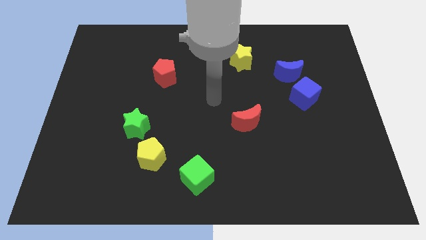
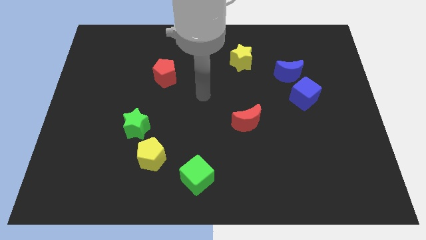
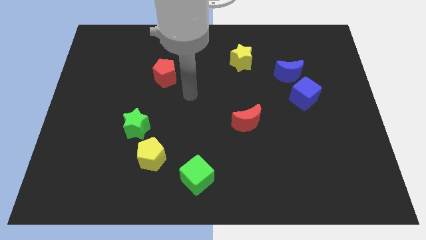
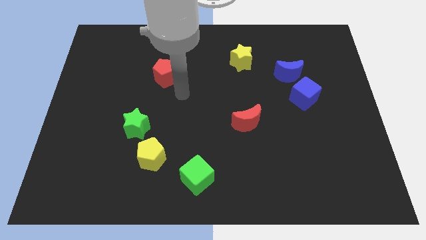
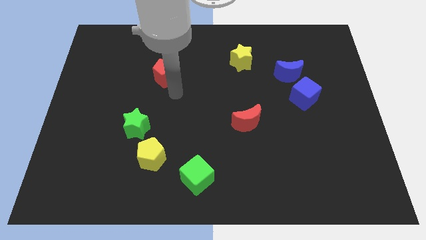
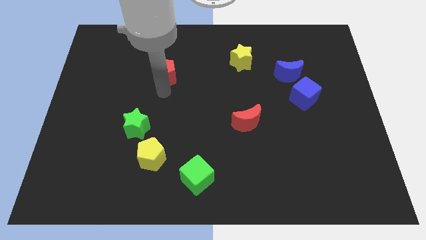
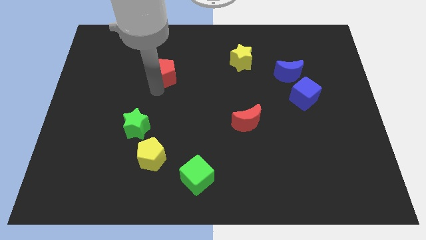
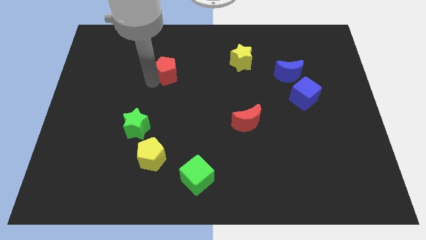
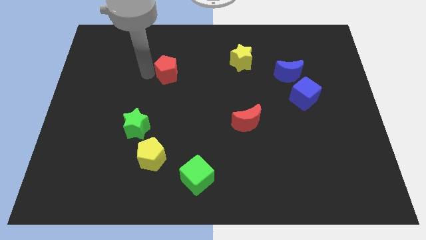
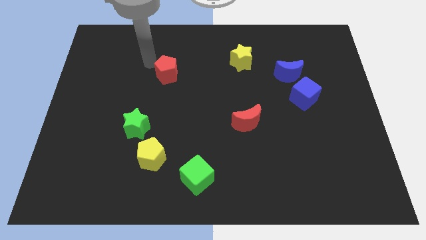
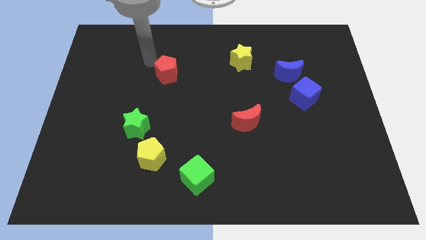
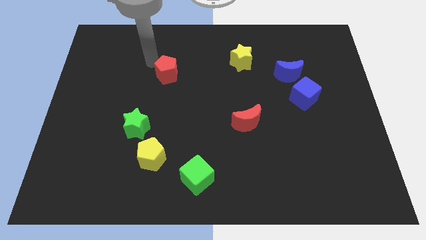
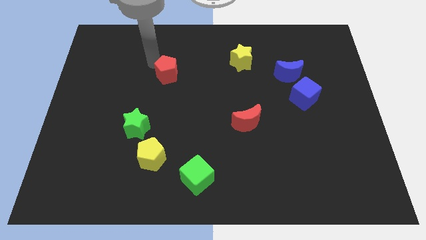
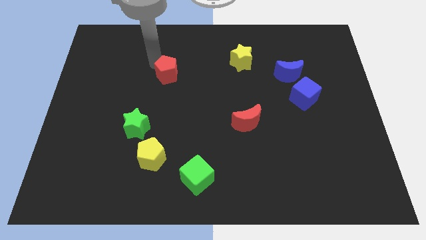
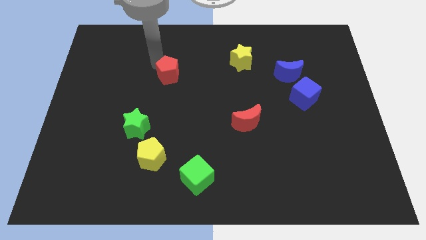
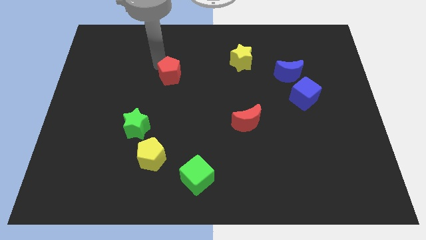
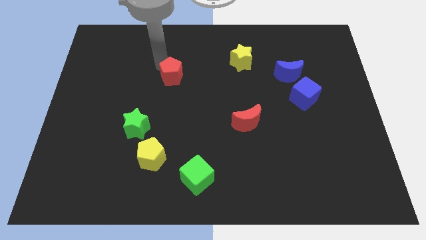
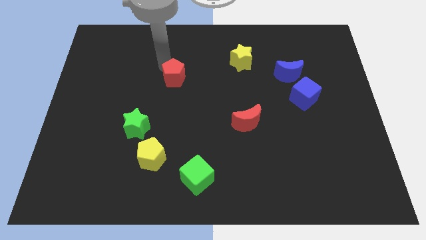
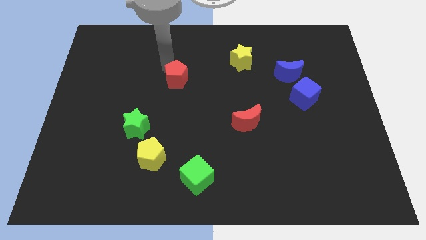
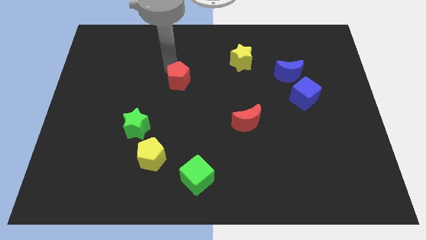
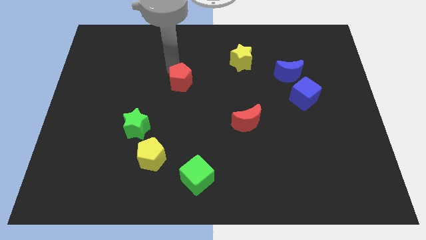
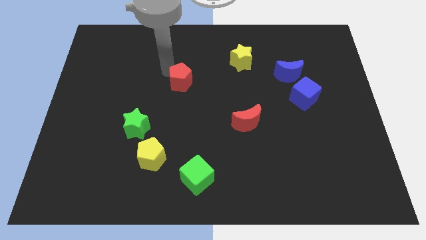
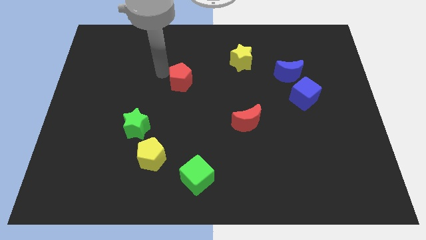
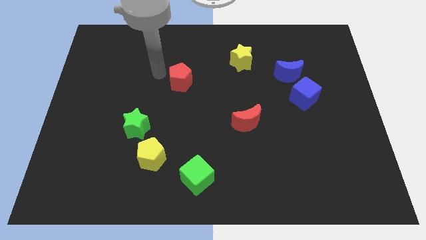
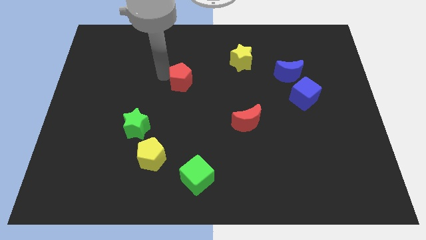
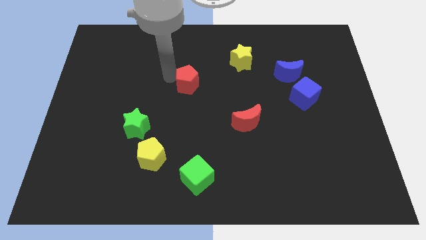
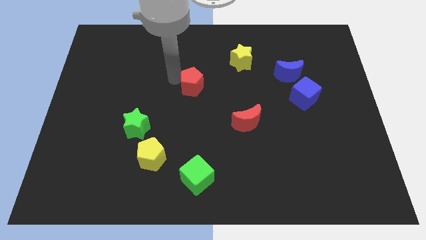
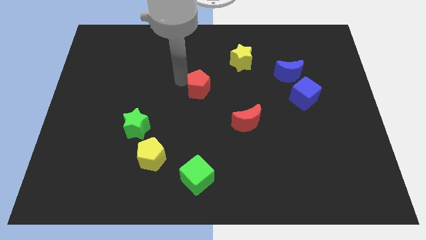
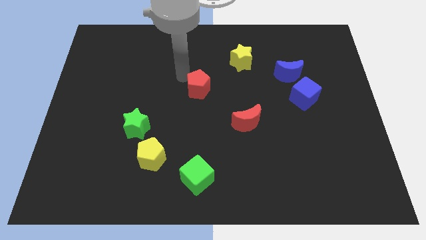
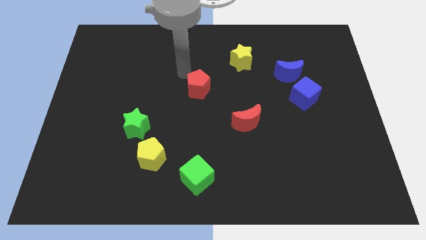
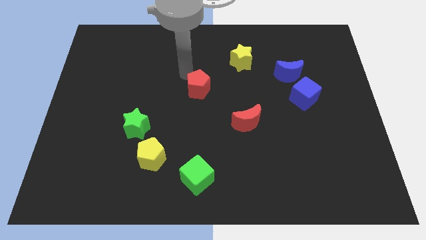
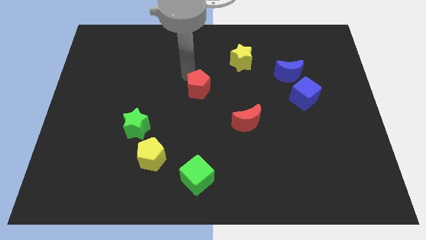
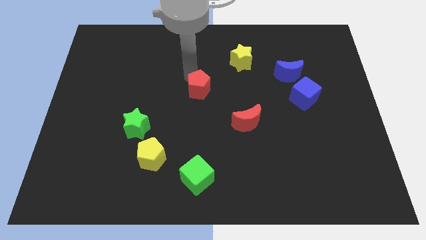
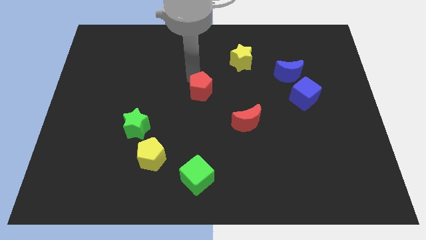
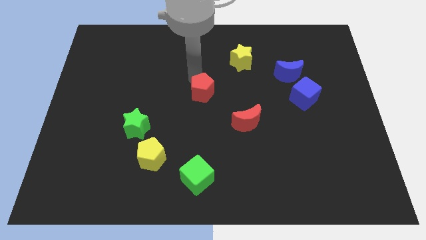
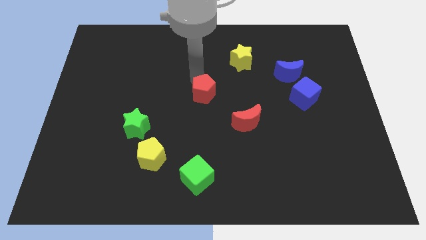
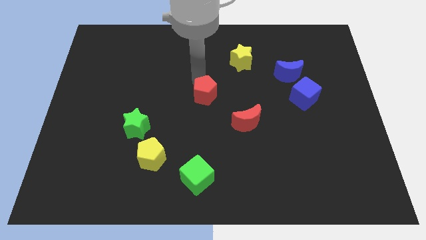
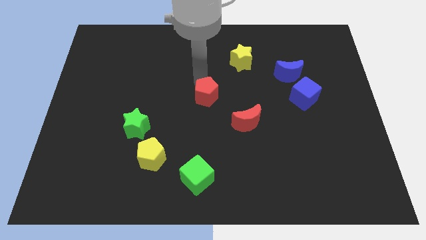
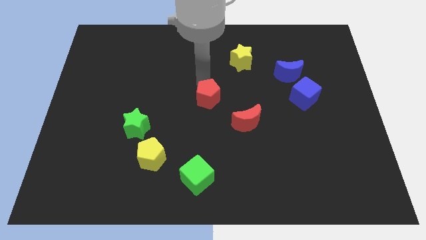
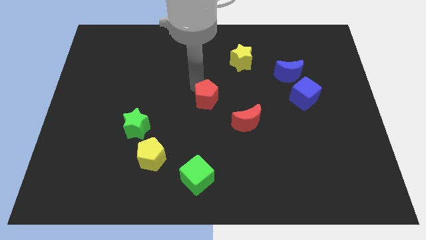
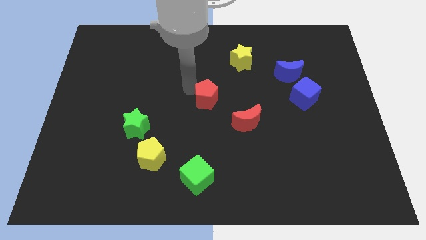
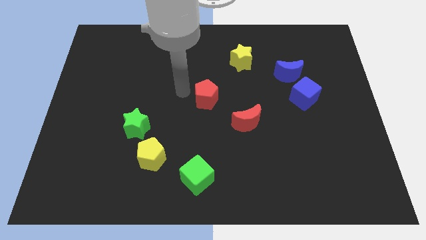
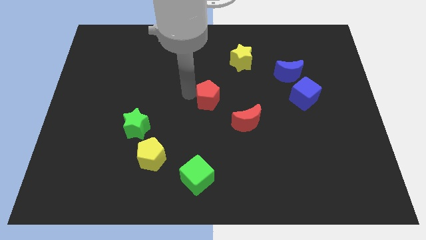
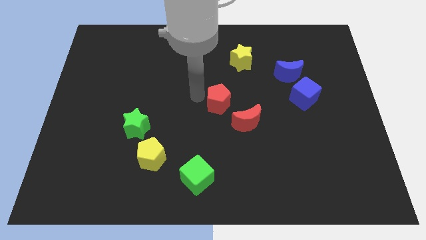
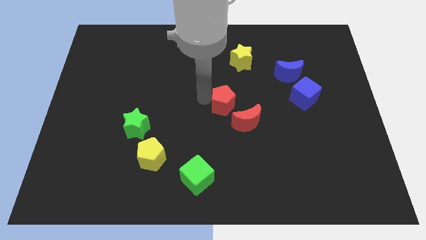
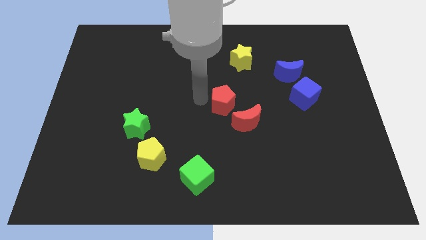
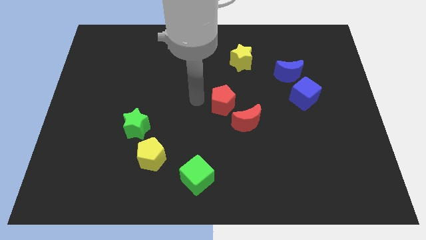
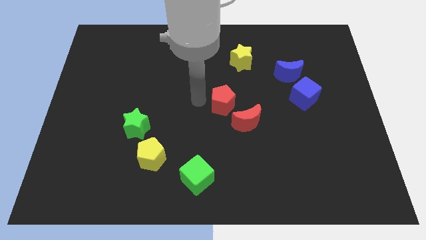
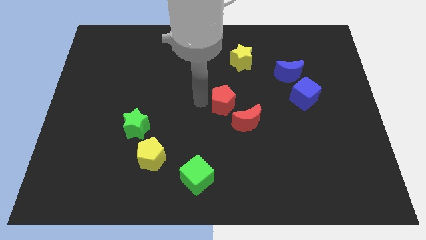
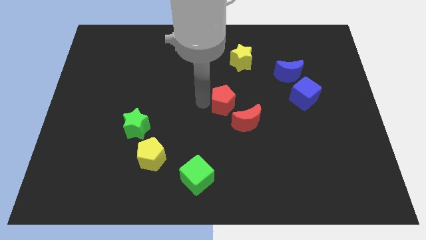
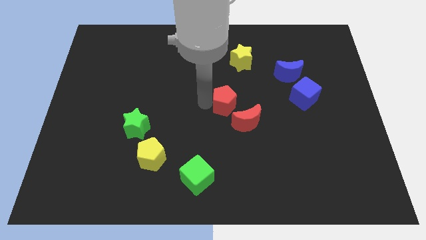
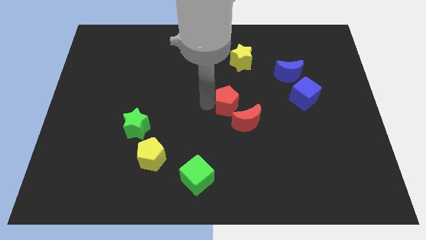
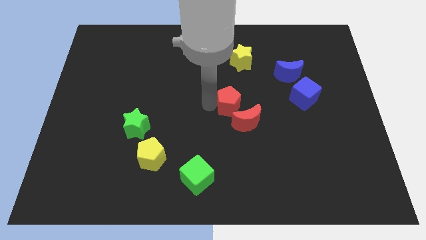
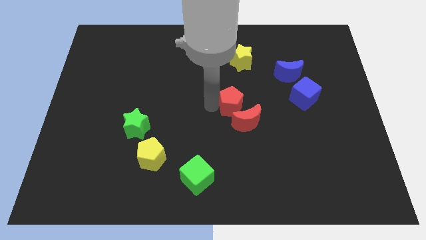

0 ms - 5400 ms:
put the red pentagon to the red moon

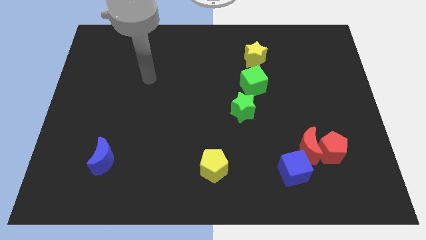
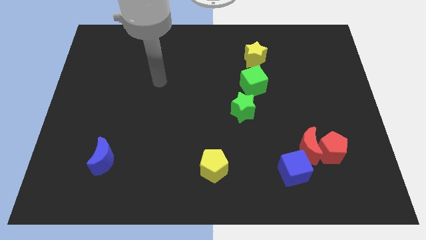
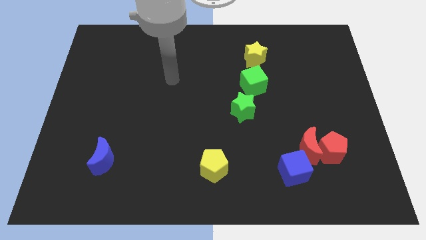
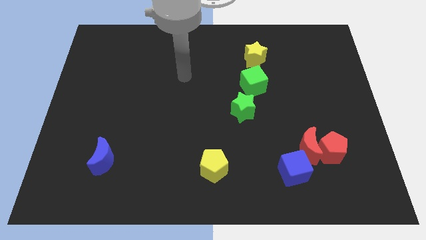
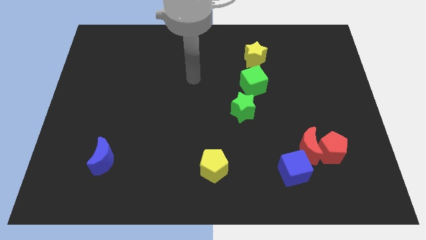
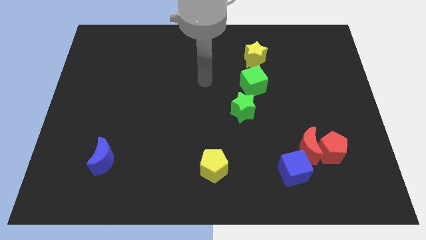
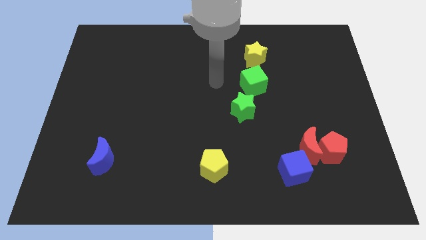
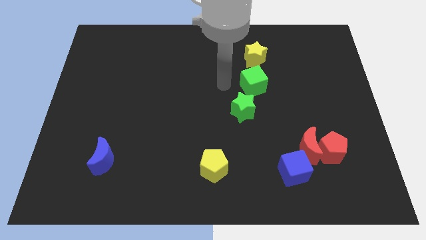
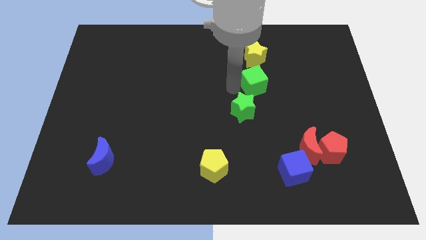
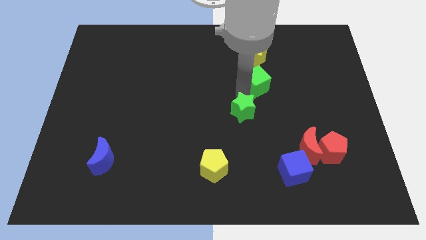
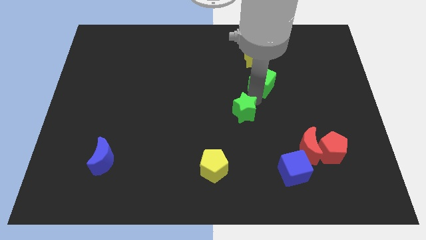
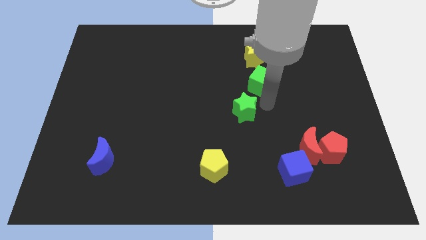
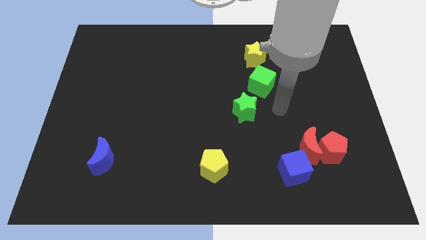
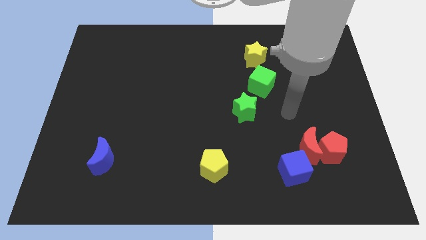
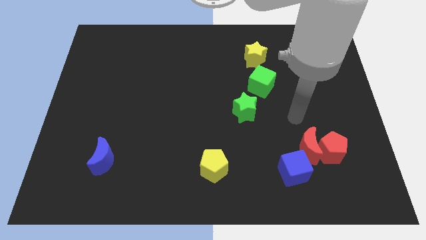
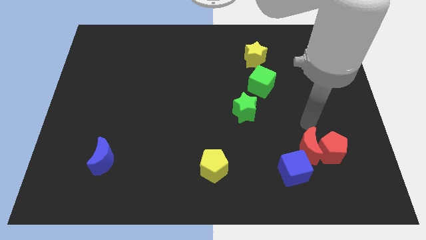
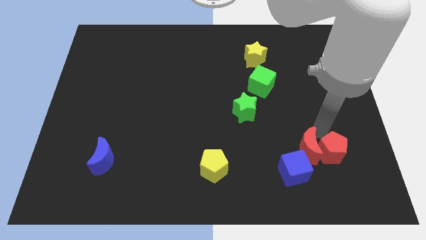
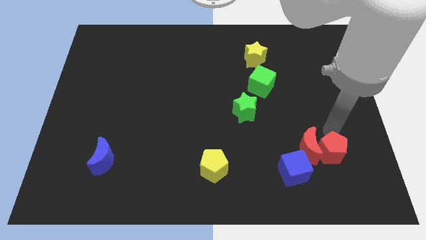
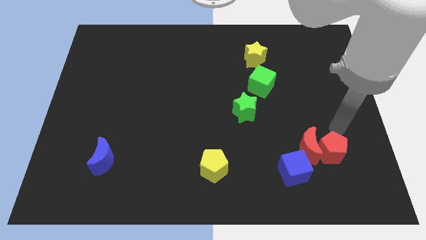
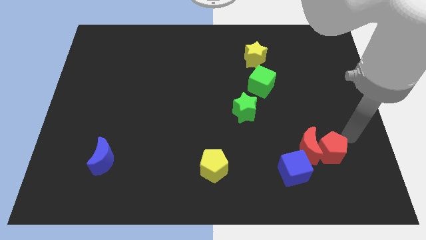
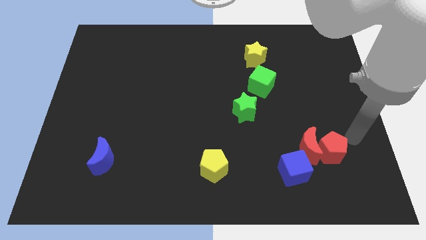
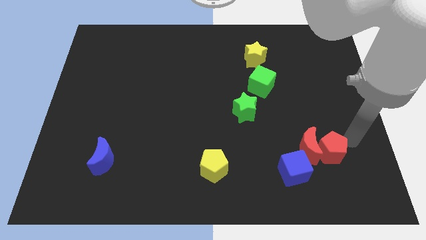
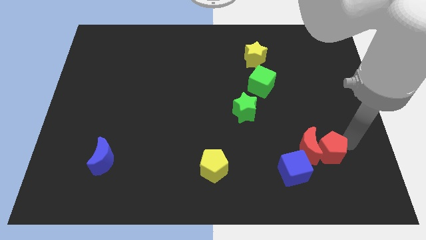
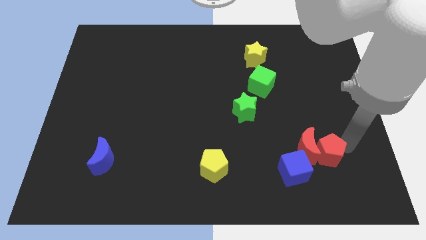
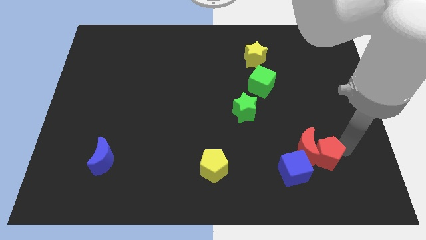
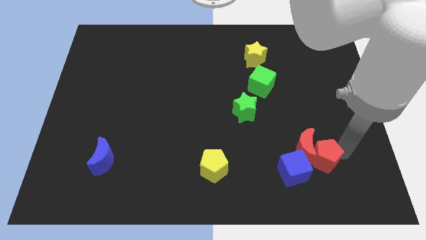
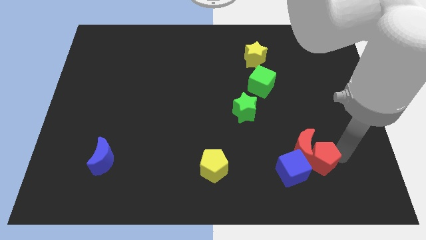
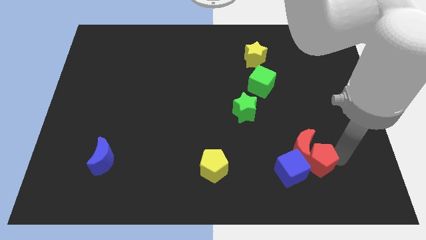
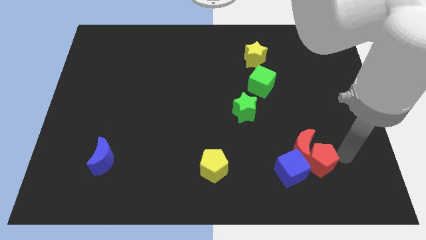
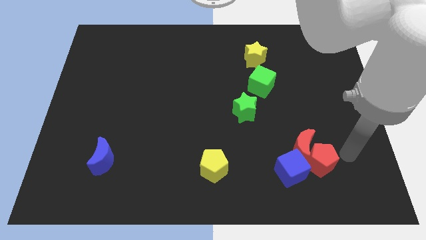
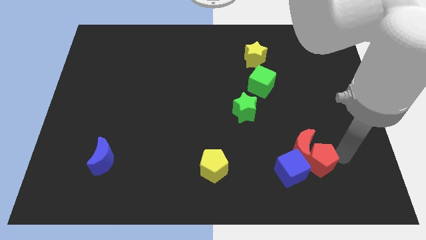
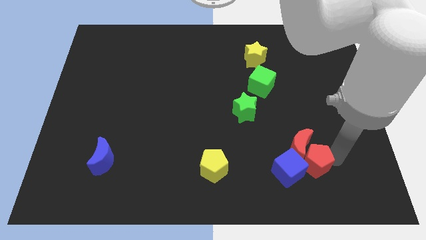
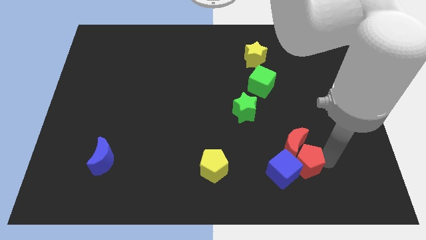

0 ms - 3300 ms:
slide the red pentagon close to the blue cube
